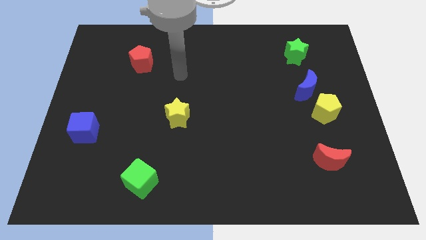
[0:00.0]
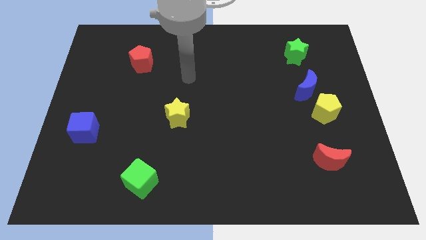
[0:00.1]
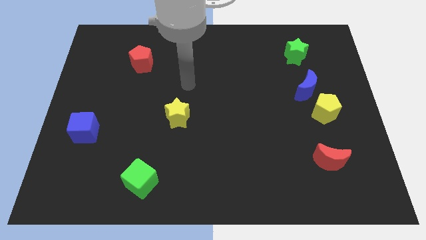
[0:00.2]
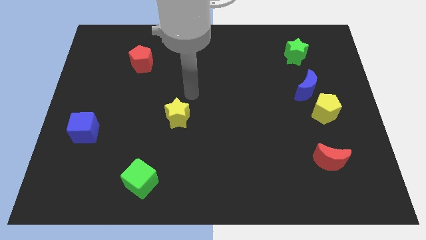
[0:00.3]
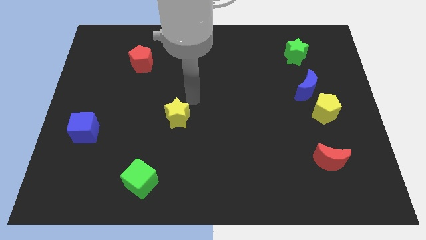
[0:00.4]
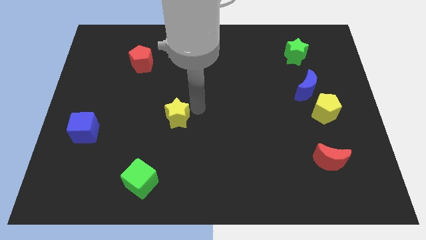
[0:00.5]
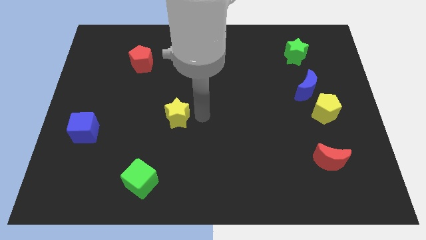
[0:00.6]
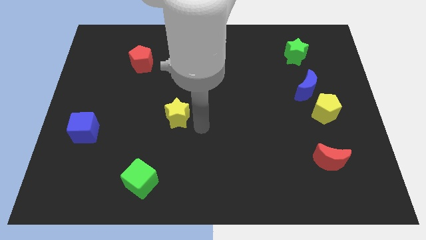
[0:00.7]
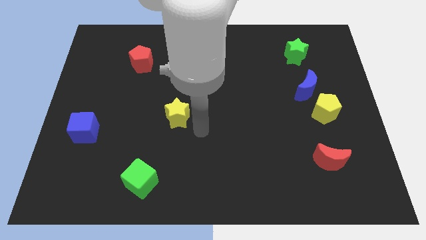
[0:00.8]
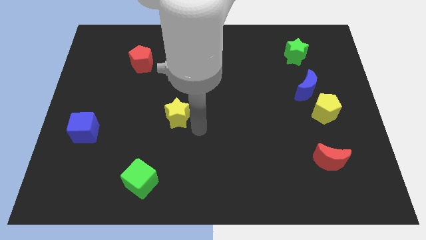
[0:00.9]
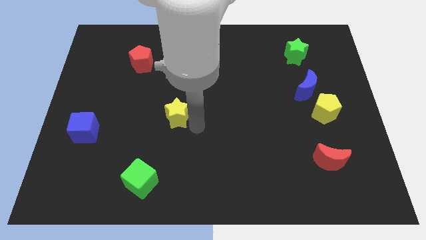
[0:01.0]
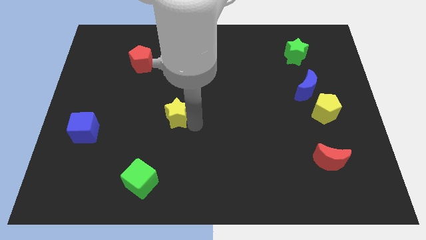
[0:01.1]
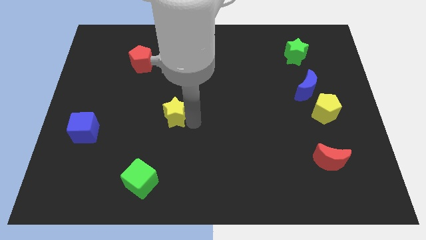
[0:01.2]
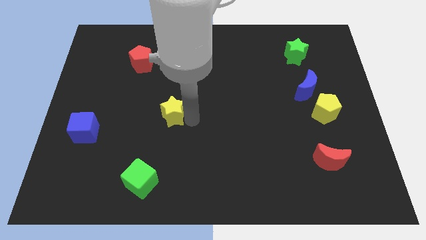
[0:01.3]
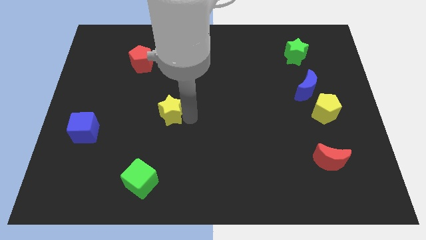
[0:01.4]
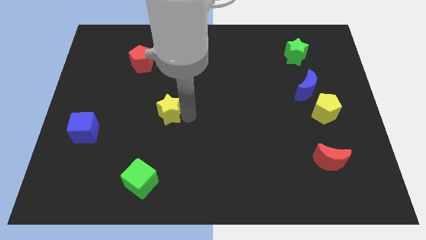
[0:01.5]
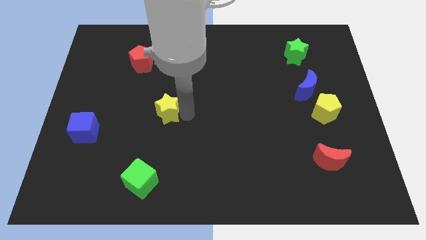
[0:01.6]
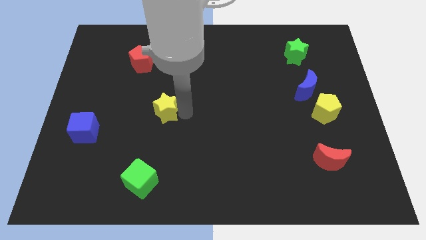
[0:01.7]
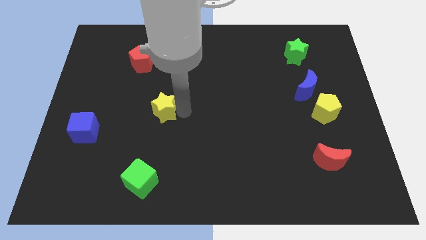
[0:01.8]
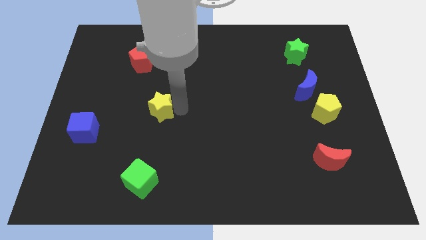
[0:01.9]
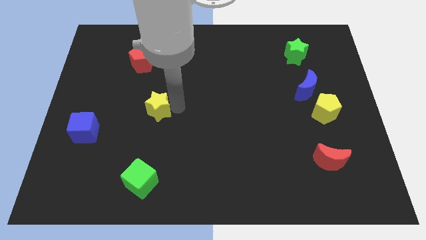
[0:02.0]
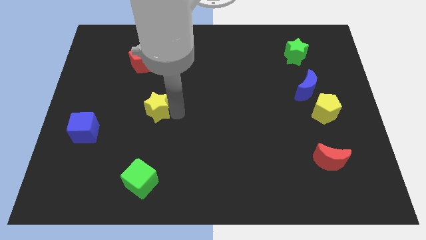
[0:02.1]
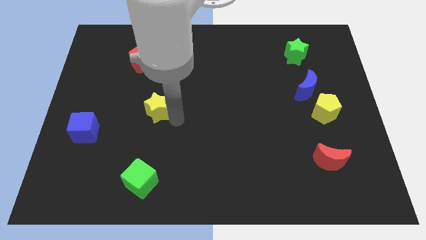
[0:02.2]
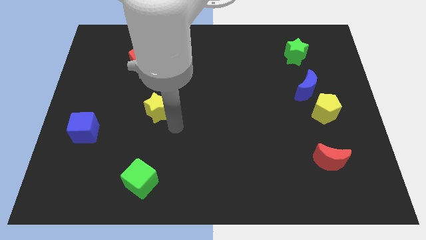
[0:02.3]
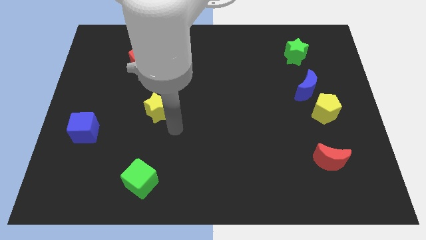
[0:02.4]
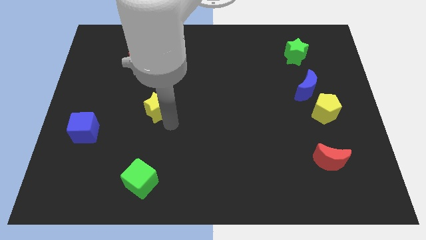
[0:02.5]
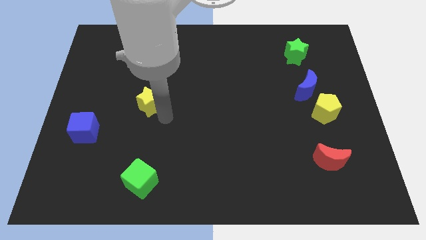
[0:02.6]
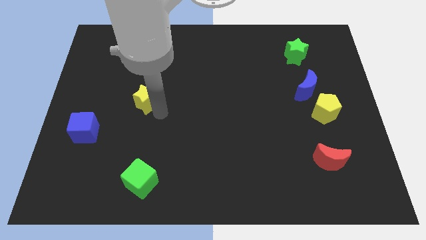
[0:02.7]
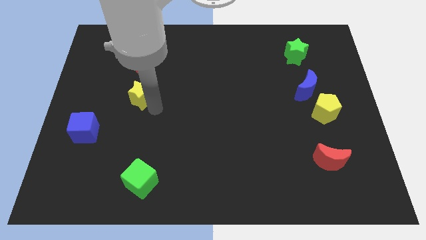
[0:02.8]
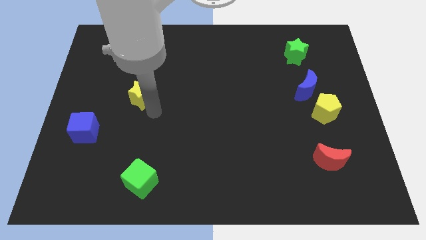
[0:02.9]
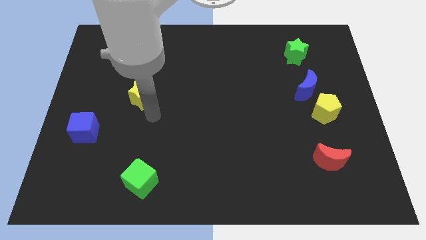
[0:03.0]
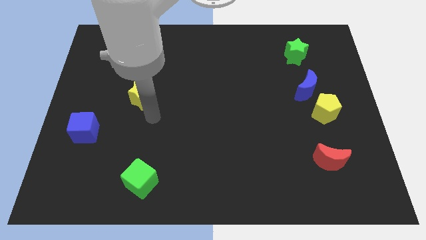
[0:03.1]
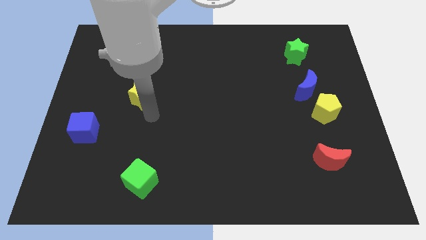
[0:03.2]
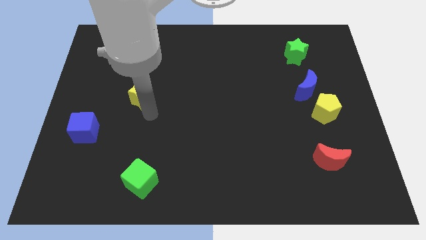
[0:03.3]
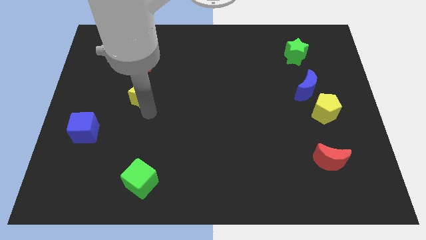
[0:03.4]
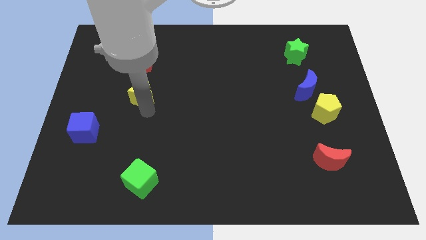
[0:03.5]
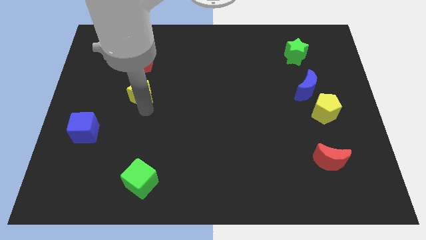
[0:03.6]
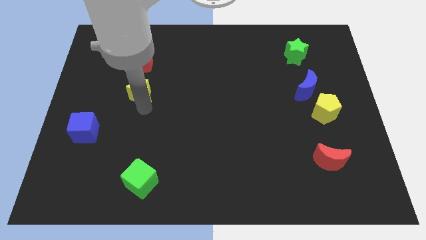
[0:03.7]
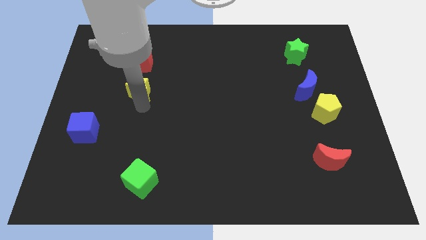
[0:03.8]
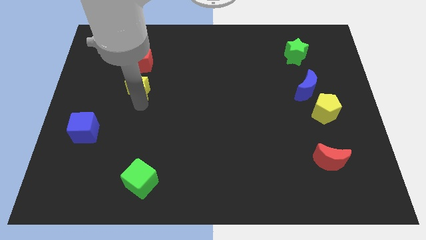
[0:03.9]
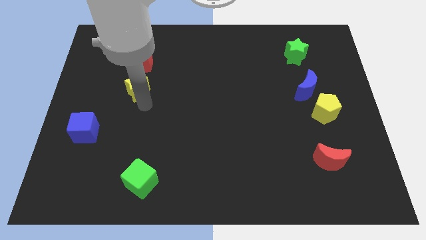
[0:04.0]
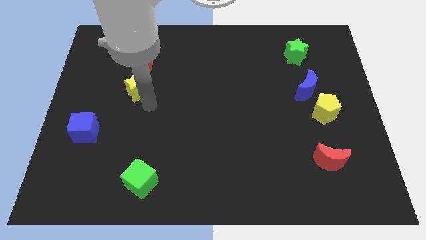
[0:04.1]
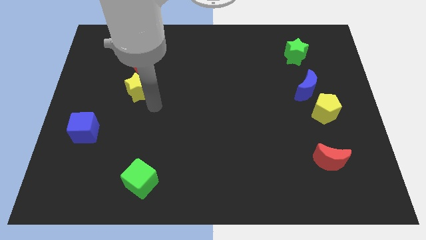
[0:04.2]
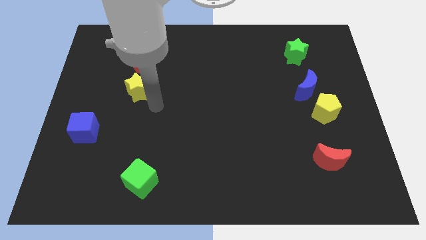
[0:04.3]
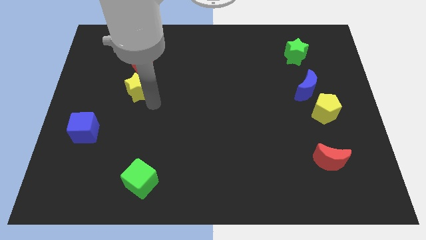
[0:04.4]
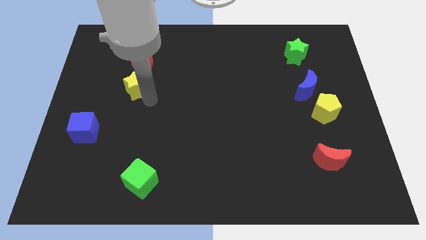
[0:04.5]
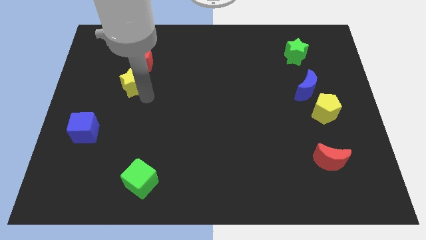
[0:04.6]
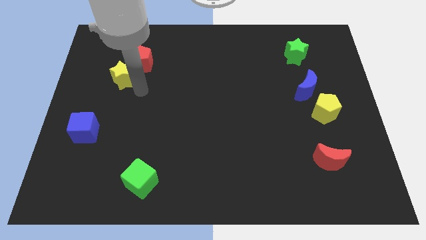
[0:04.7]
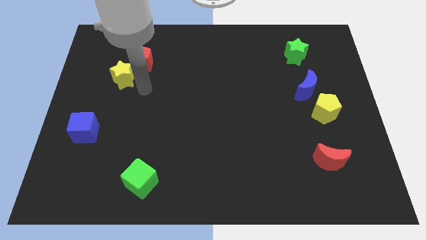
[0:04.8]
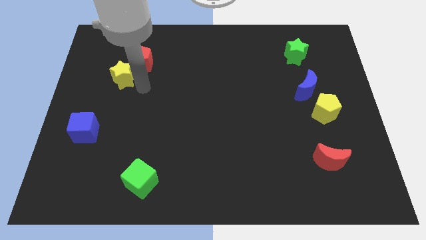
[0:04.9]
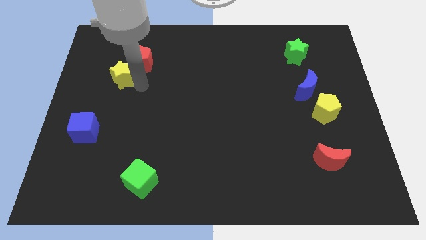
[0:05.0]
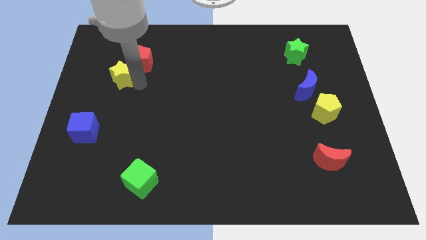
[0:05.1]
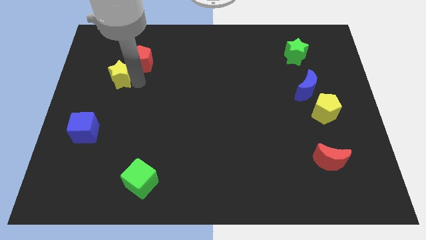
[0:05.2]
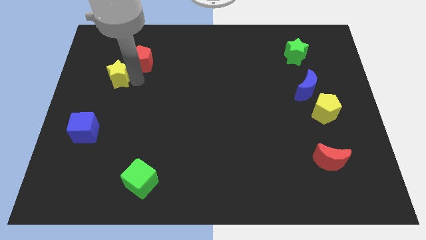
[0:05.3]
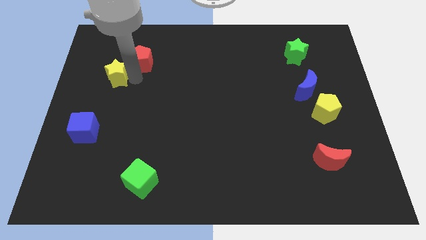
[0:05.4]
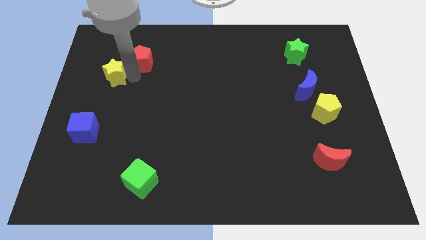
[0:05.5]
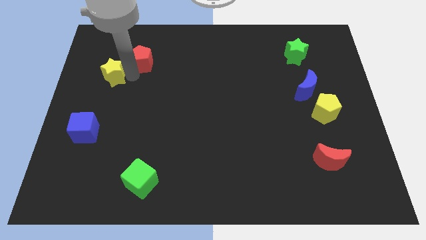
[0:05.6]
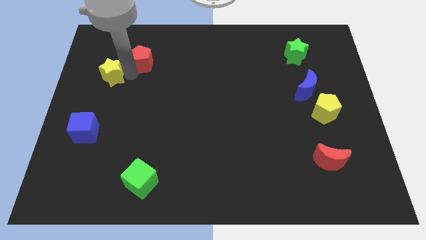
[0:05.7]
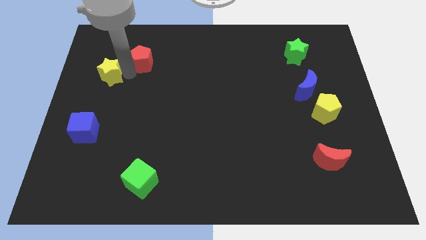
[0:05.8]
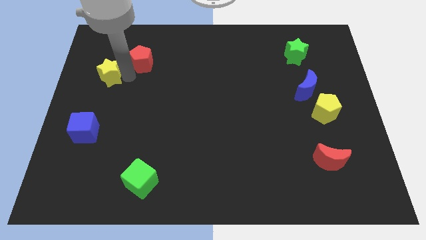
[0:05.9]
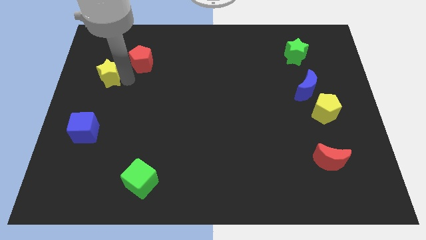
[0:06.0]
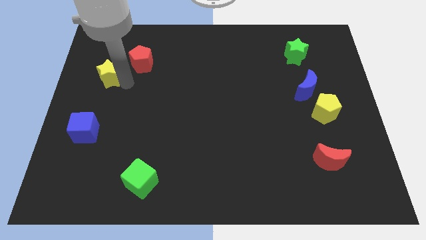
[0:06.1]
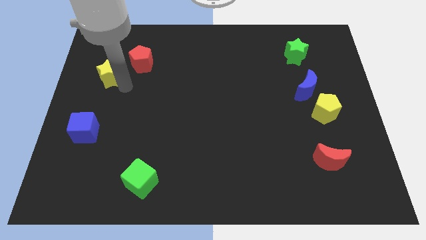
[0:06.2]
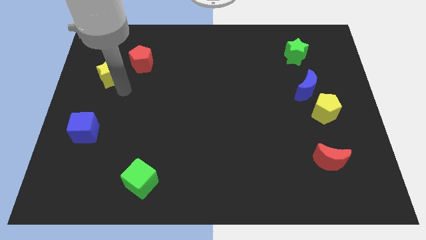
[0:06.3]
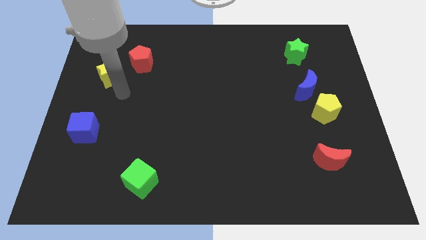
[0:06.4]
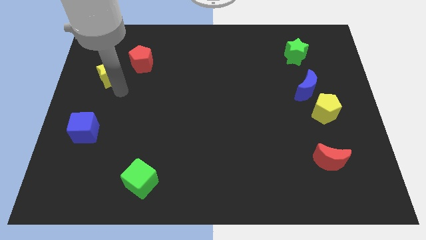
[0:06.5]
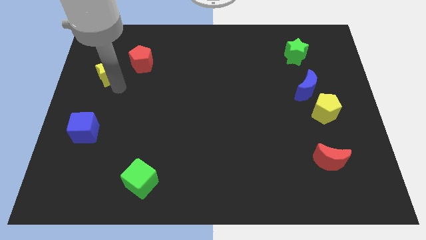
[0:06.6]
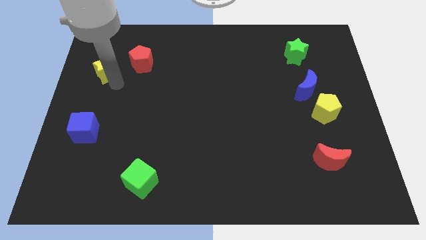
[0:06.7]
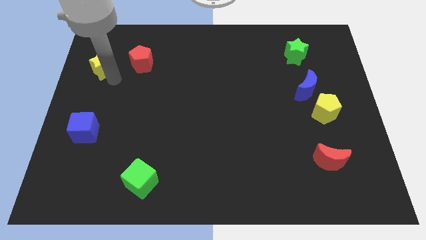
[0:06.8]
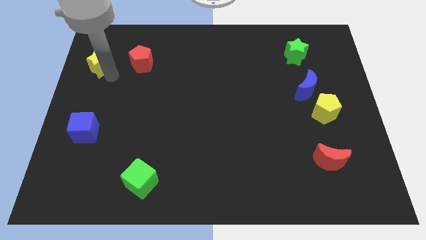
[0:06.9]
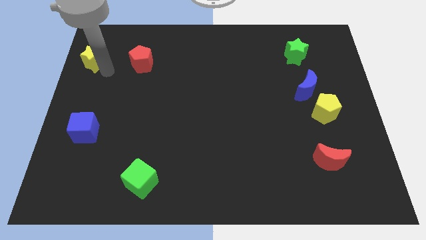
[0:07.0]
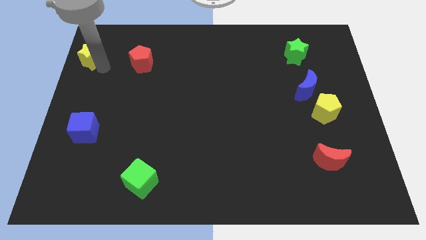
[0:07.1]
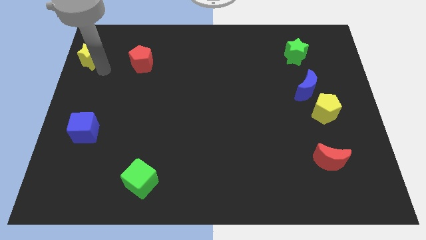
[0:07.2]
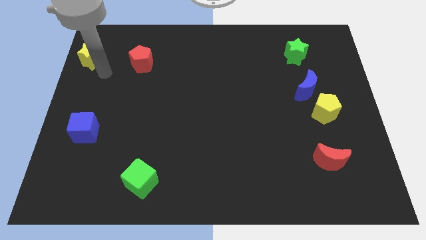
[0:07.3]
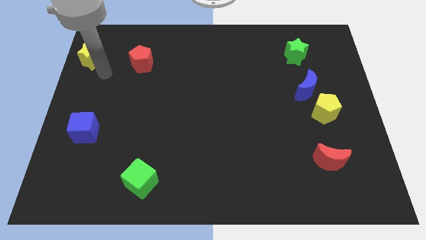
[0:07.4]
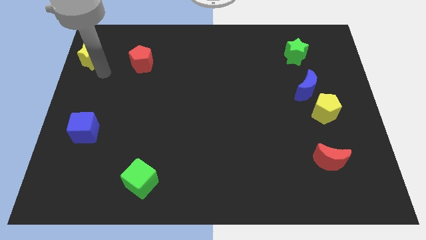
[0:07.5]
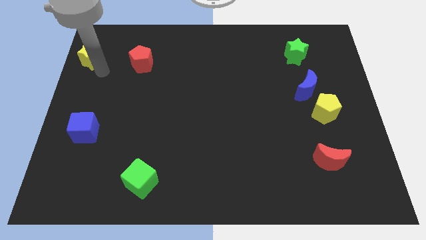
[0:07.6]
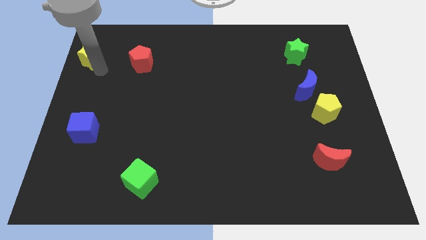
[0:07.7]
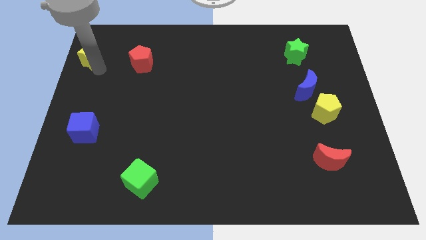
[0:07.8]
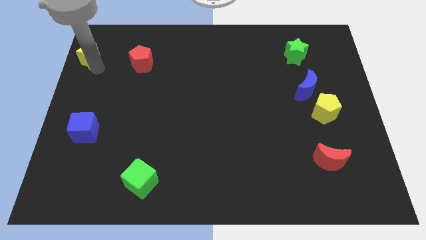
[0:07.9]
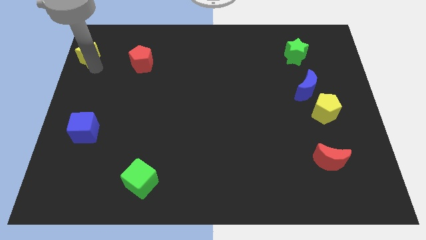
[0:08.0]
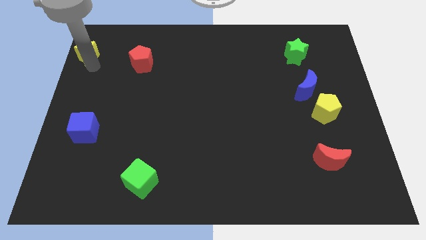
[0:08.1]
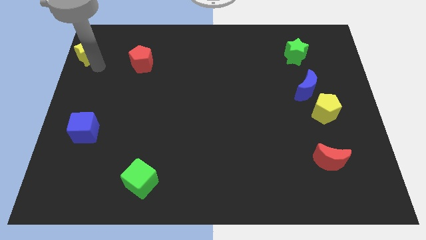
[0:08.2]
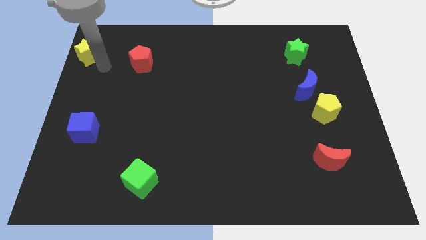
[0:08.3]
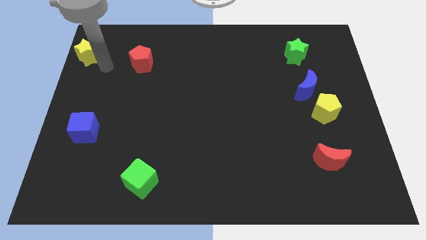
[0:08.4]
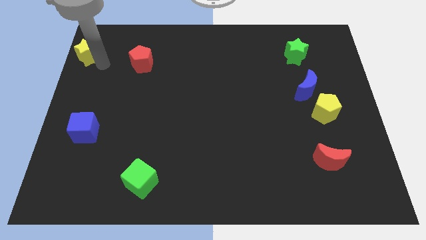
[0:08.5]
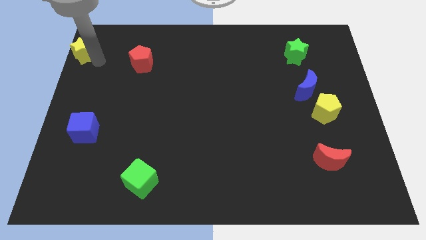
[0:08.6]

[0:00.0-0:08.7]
move the yellow star to the top left
